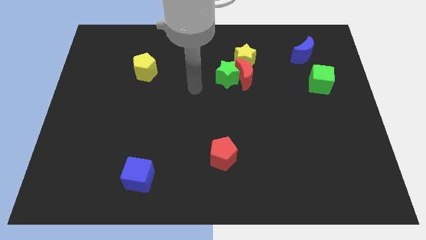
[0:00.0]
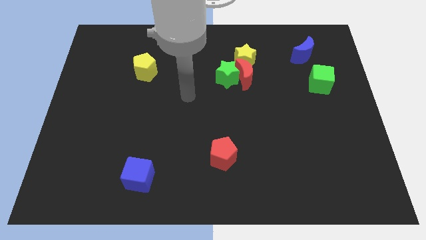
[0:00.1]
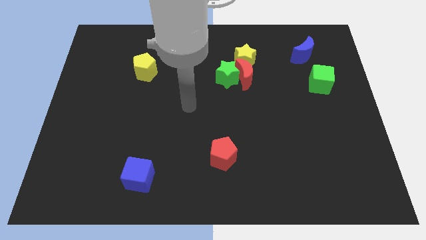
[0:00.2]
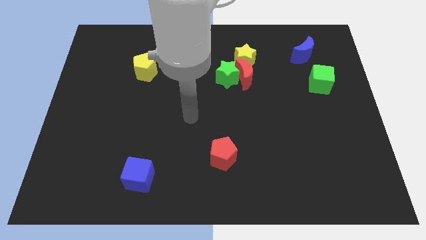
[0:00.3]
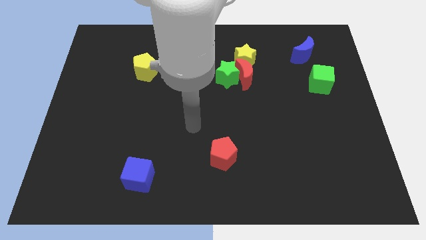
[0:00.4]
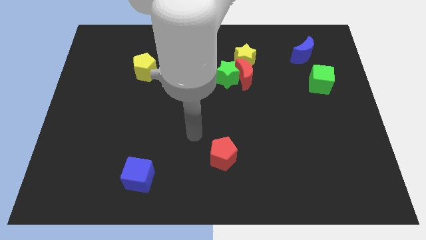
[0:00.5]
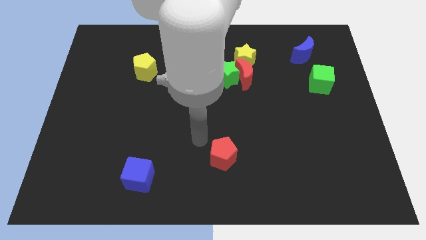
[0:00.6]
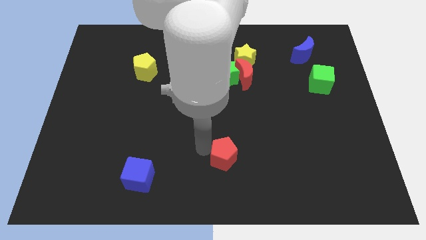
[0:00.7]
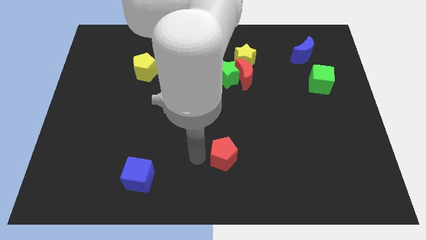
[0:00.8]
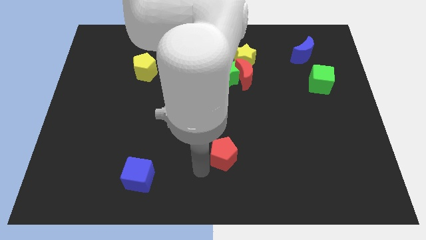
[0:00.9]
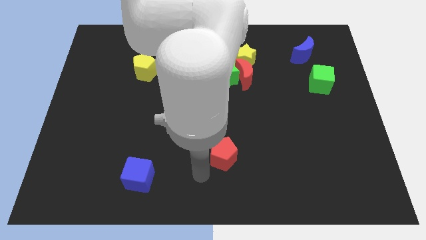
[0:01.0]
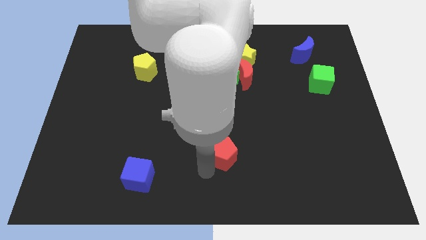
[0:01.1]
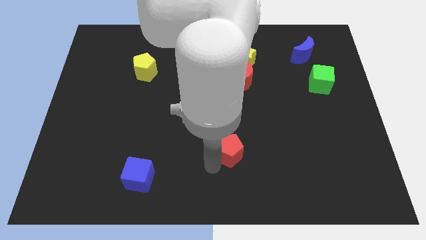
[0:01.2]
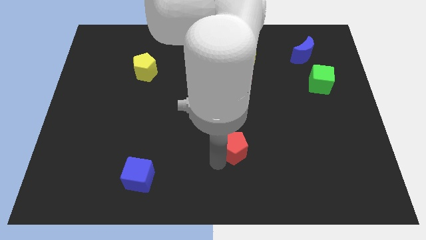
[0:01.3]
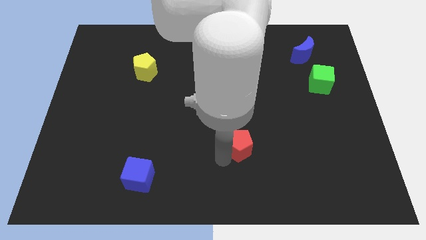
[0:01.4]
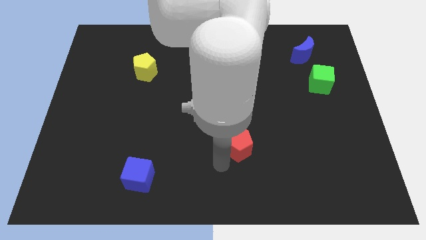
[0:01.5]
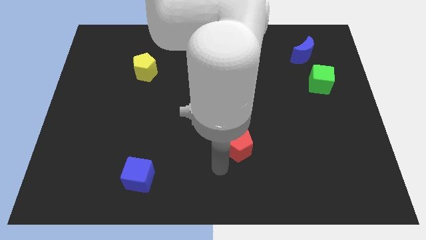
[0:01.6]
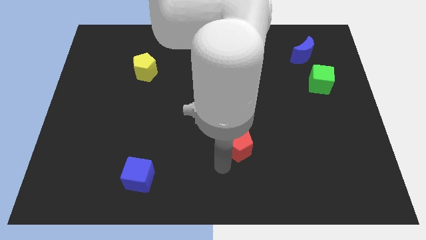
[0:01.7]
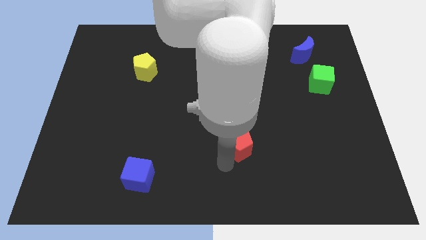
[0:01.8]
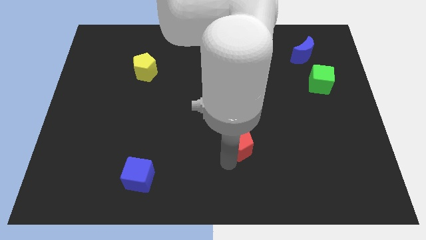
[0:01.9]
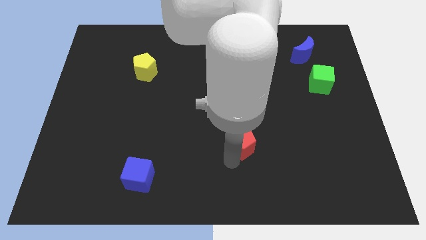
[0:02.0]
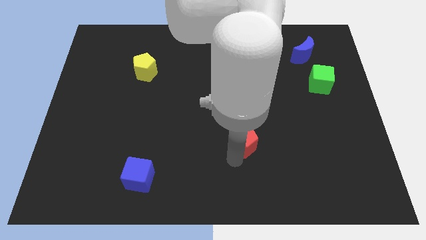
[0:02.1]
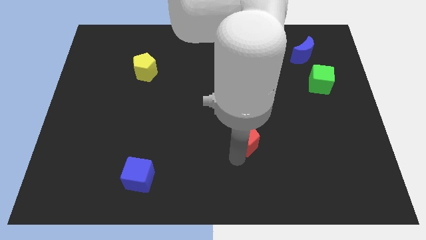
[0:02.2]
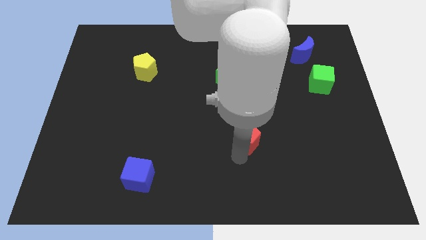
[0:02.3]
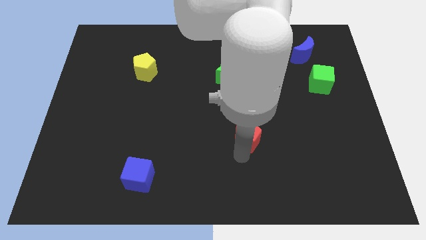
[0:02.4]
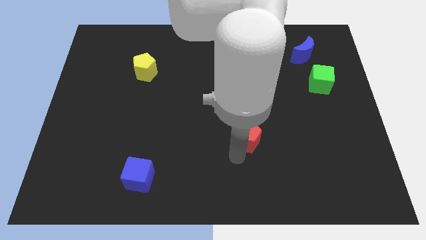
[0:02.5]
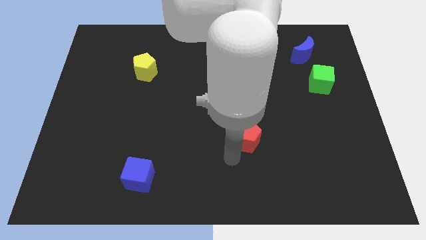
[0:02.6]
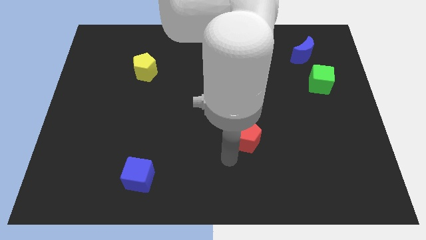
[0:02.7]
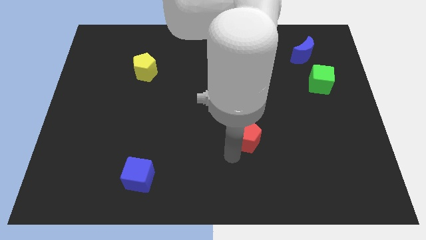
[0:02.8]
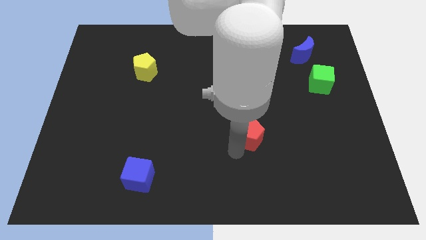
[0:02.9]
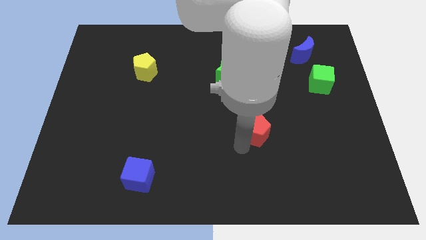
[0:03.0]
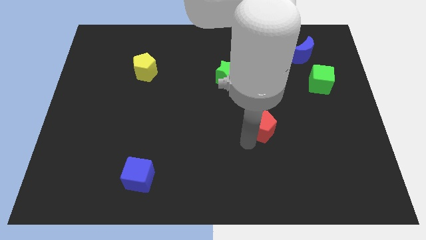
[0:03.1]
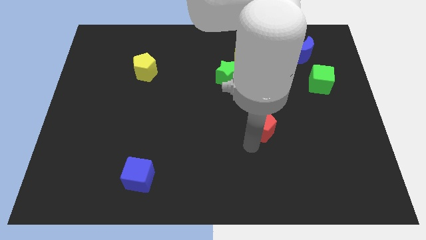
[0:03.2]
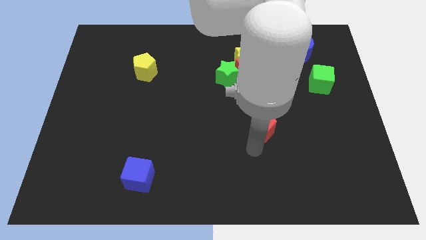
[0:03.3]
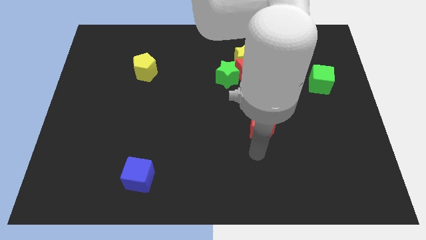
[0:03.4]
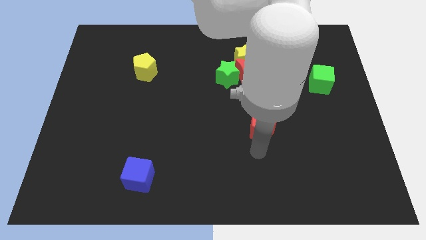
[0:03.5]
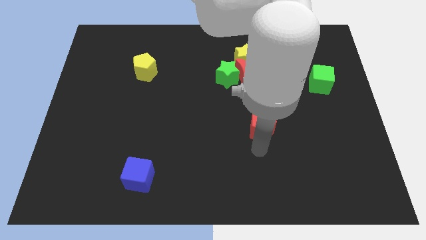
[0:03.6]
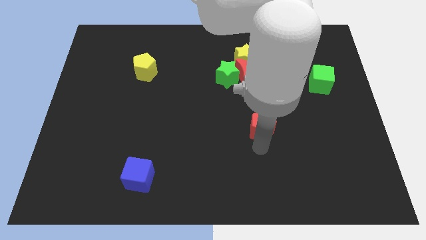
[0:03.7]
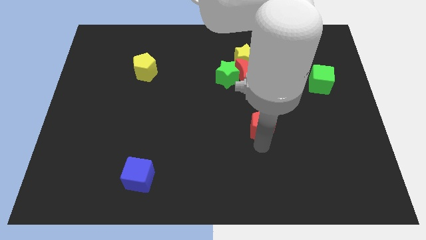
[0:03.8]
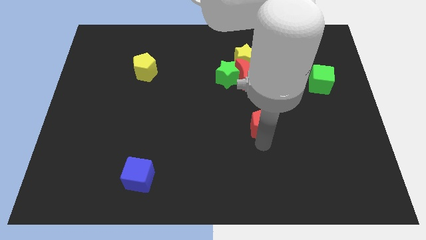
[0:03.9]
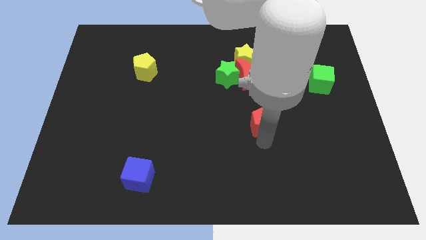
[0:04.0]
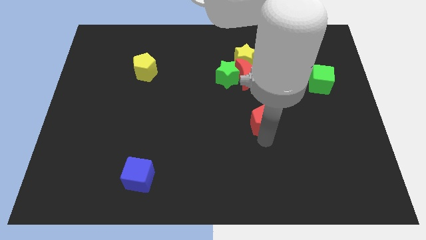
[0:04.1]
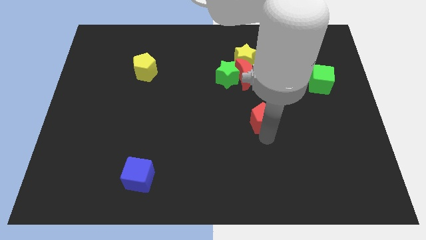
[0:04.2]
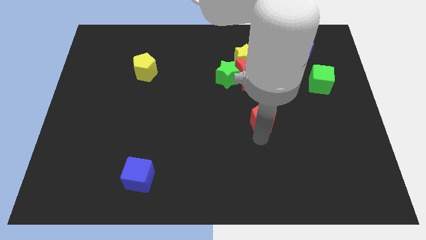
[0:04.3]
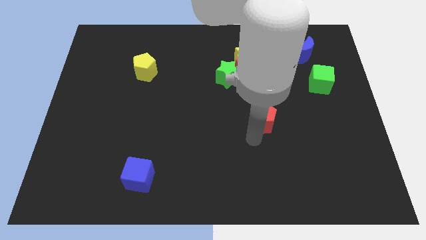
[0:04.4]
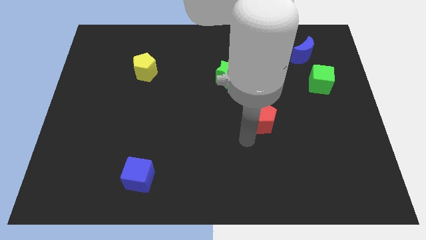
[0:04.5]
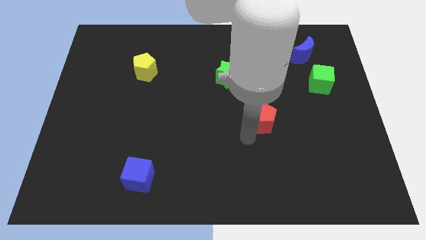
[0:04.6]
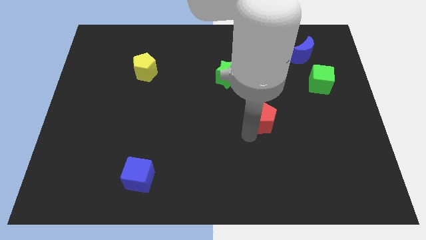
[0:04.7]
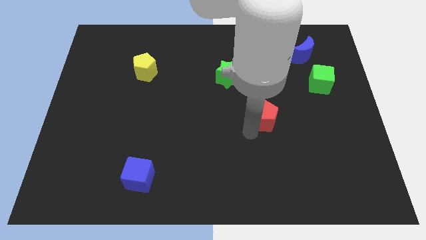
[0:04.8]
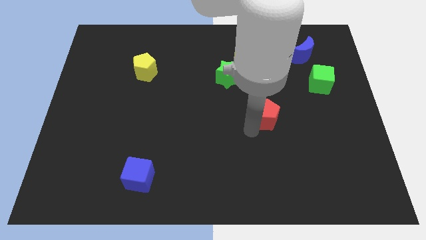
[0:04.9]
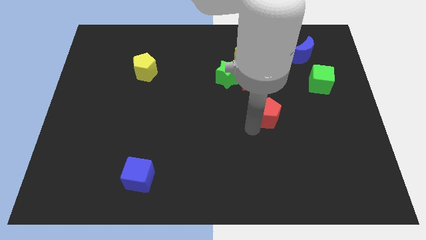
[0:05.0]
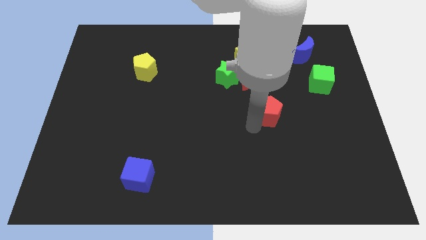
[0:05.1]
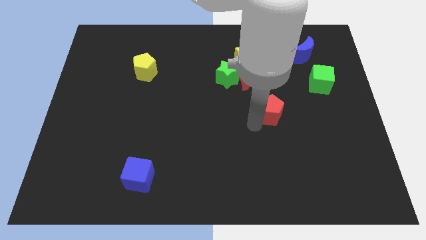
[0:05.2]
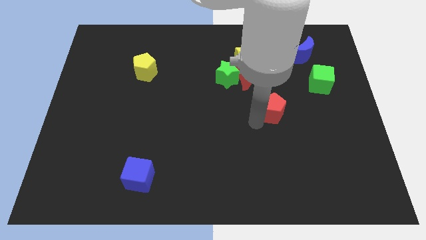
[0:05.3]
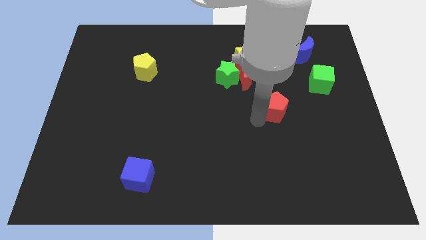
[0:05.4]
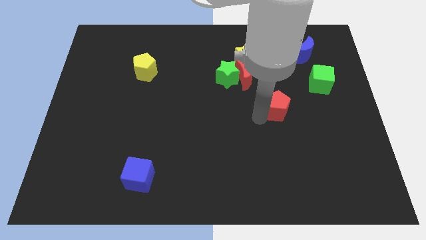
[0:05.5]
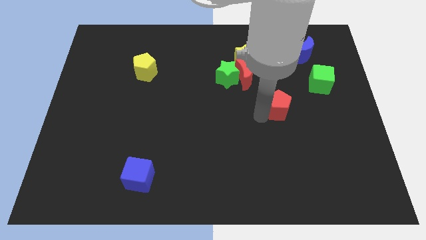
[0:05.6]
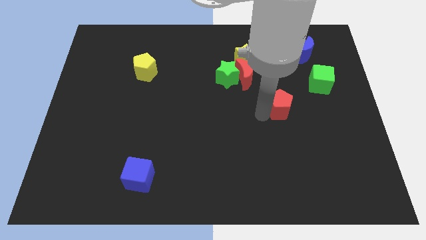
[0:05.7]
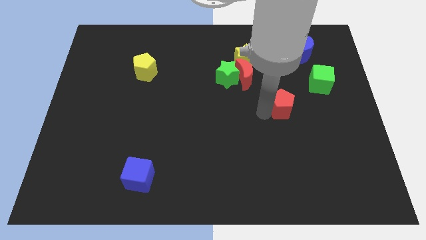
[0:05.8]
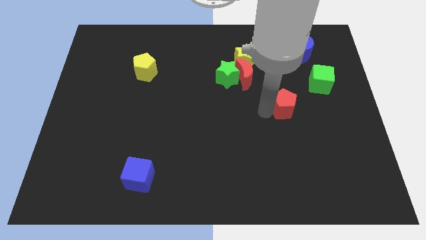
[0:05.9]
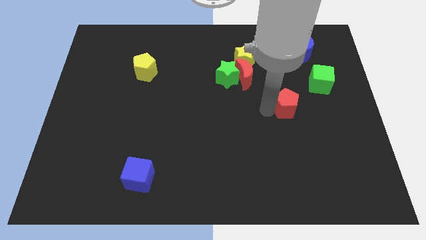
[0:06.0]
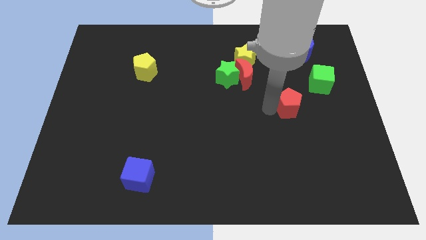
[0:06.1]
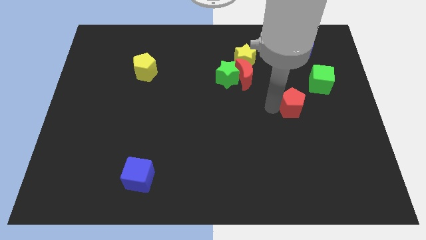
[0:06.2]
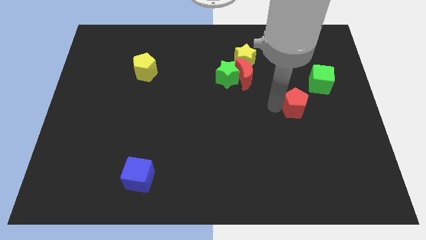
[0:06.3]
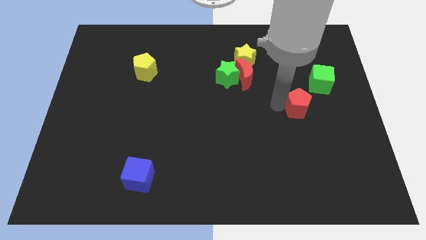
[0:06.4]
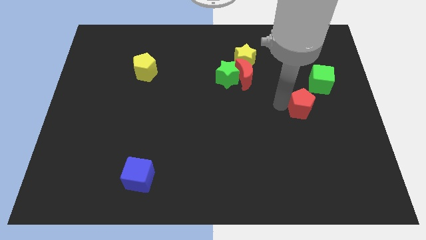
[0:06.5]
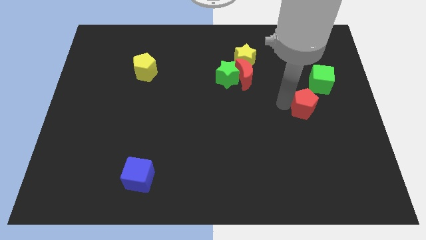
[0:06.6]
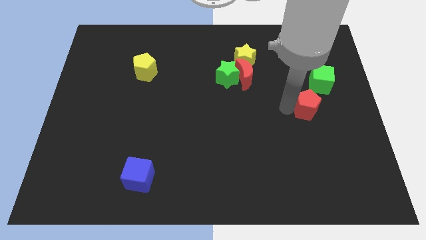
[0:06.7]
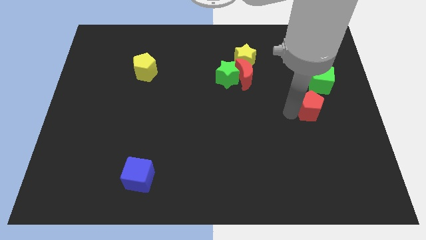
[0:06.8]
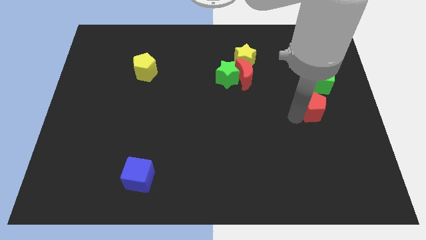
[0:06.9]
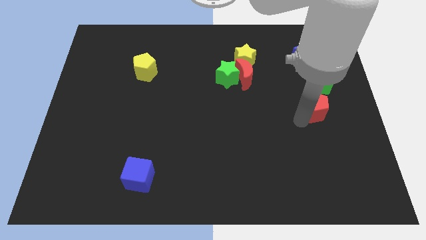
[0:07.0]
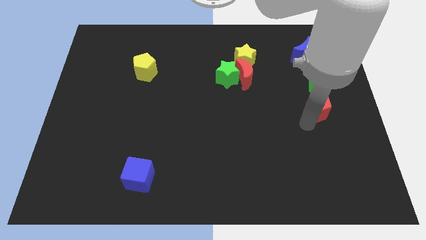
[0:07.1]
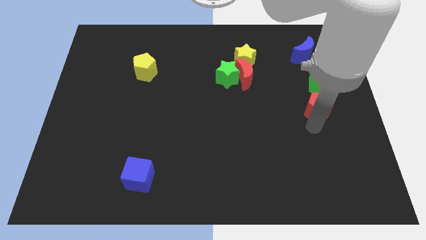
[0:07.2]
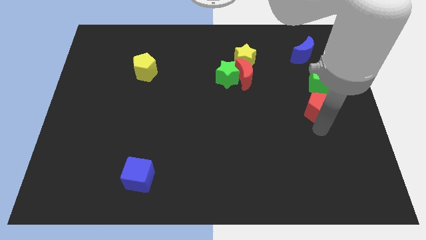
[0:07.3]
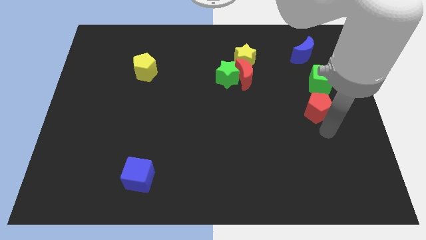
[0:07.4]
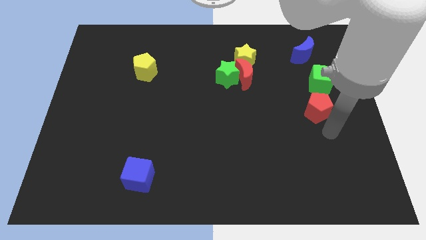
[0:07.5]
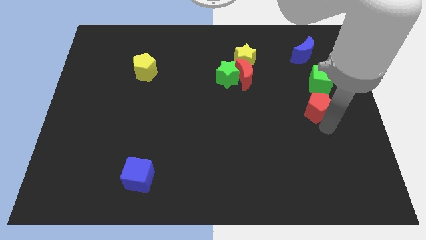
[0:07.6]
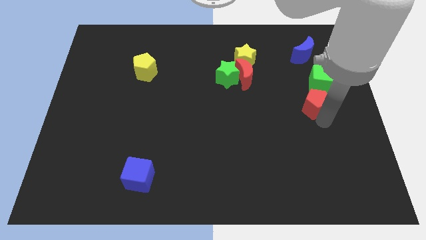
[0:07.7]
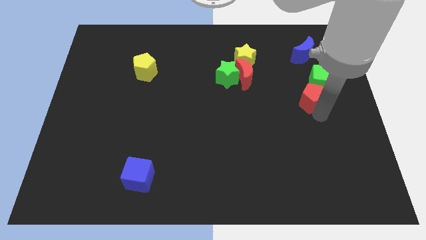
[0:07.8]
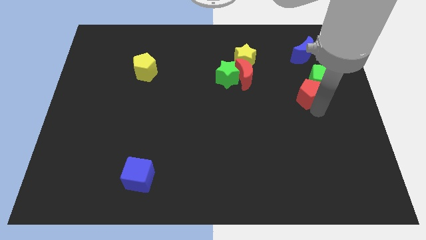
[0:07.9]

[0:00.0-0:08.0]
push the red pentagon close to the green cube
